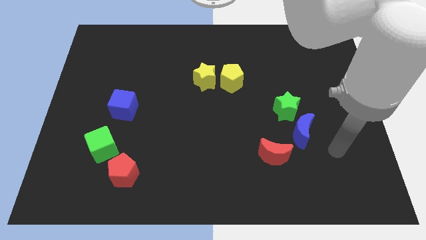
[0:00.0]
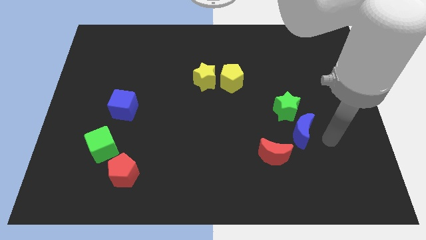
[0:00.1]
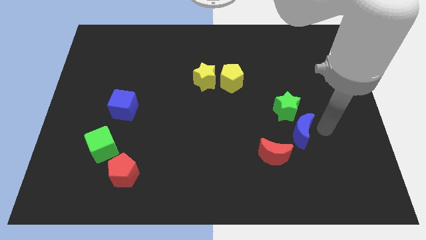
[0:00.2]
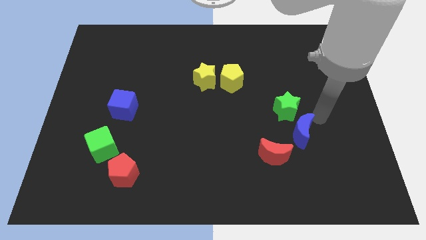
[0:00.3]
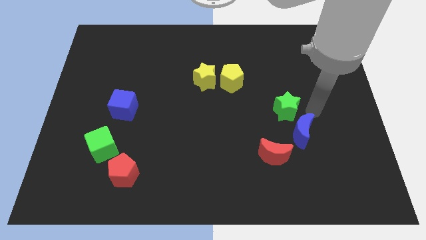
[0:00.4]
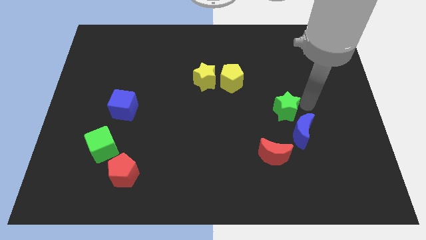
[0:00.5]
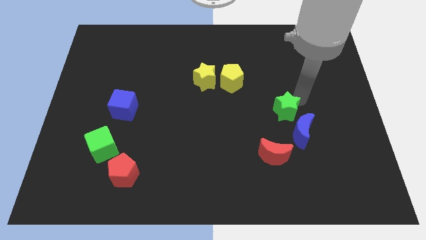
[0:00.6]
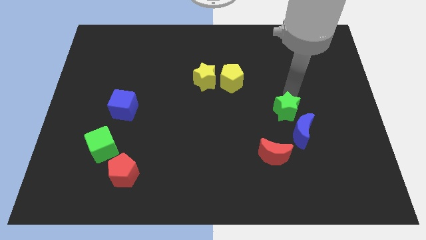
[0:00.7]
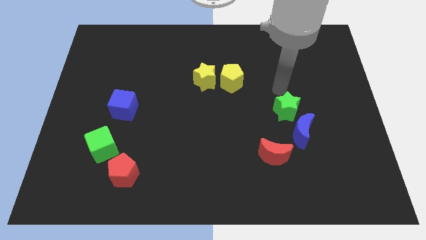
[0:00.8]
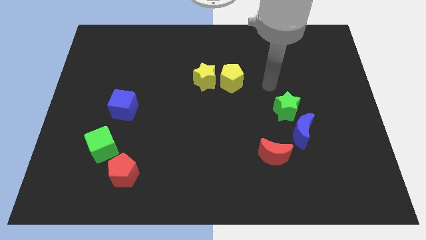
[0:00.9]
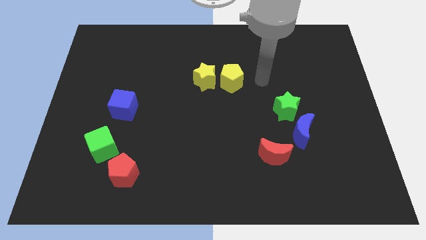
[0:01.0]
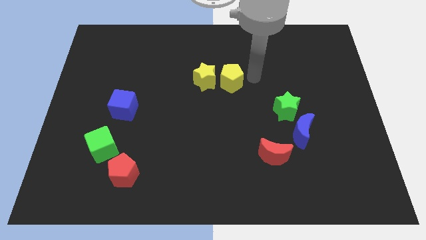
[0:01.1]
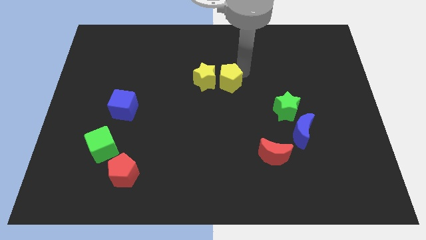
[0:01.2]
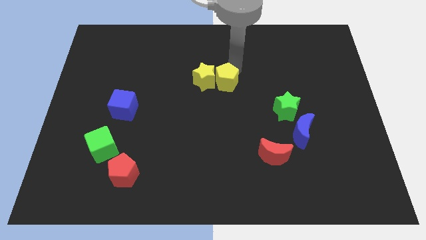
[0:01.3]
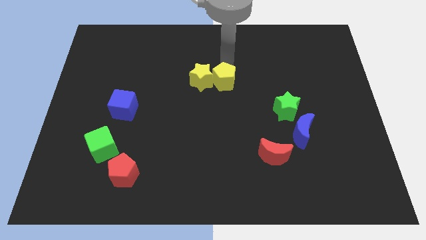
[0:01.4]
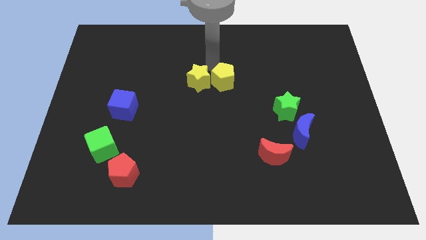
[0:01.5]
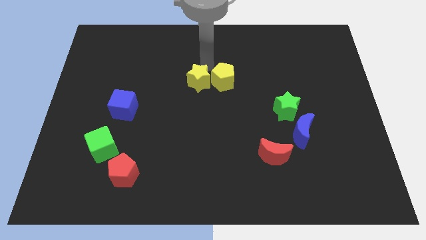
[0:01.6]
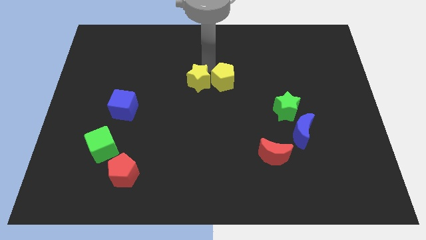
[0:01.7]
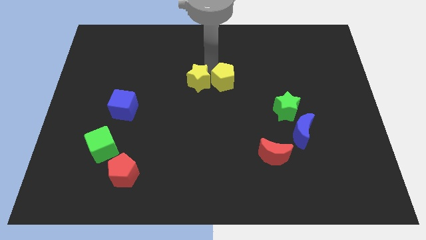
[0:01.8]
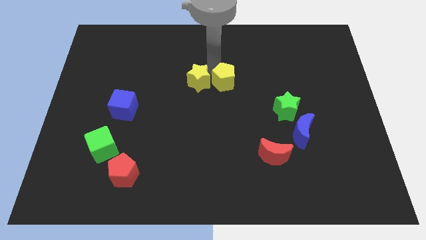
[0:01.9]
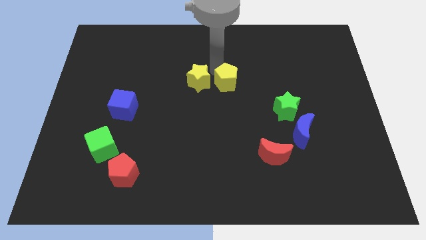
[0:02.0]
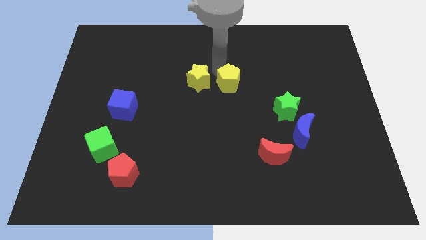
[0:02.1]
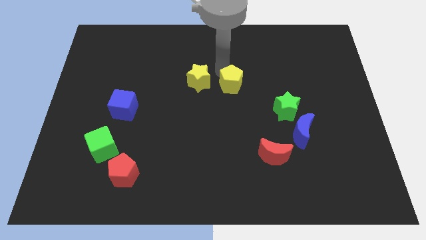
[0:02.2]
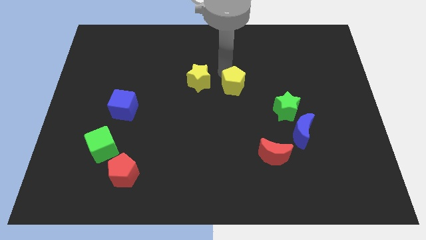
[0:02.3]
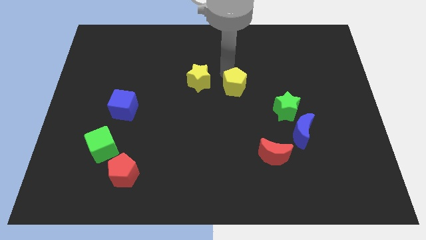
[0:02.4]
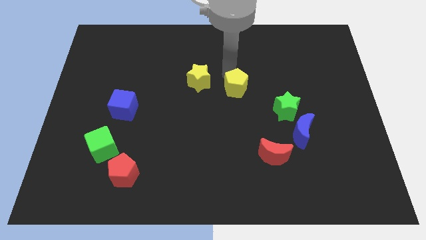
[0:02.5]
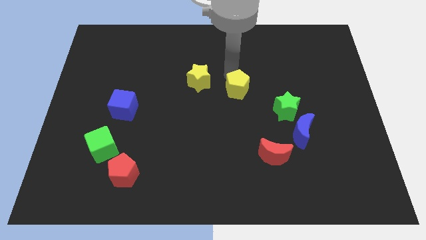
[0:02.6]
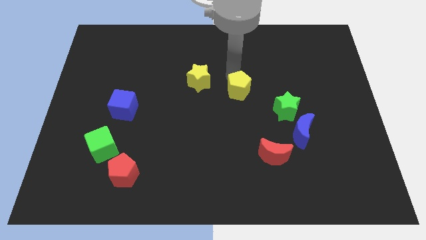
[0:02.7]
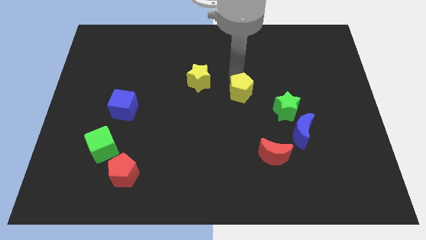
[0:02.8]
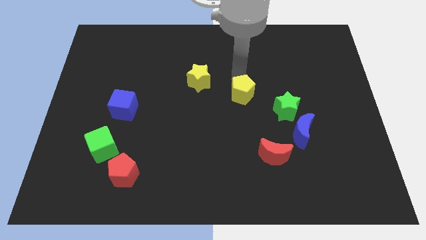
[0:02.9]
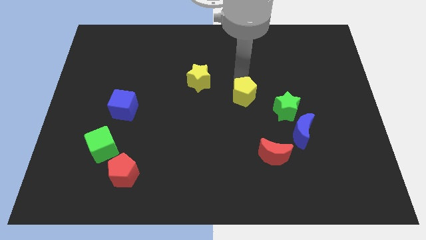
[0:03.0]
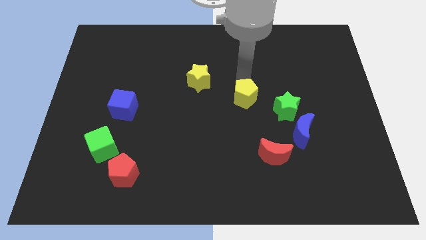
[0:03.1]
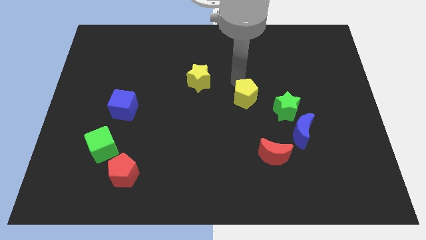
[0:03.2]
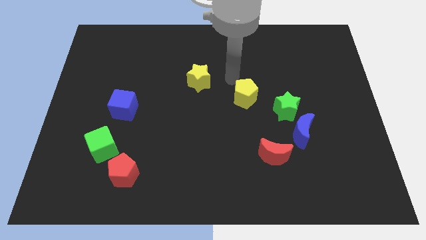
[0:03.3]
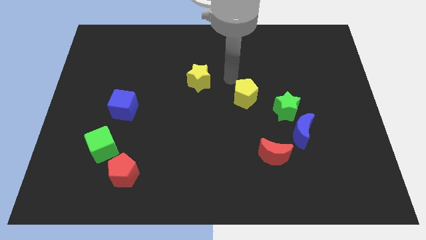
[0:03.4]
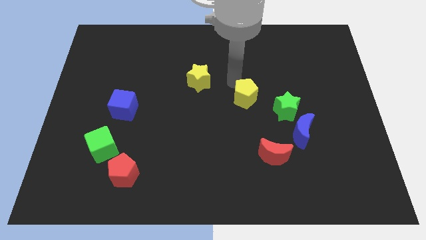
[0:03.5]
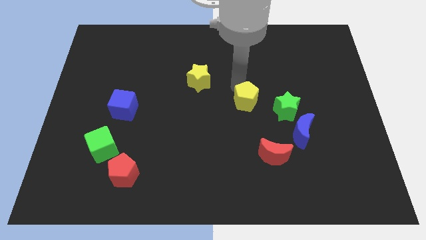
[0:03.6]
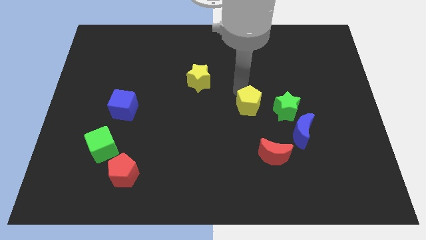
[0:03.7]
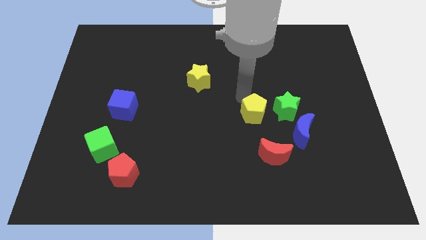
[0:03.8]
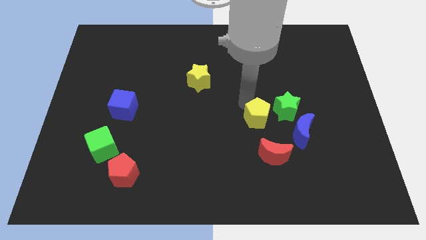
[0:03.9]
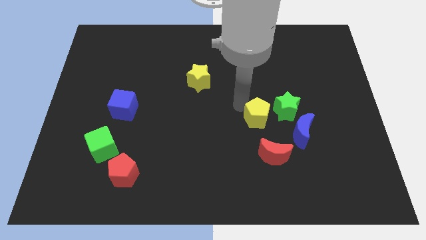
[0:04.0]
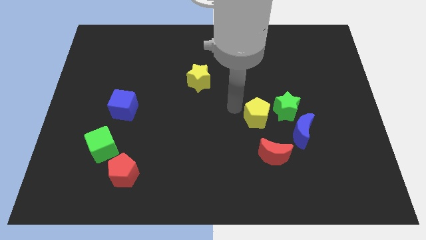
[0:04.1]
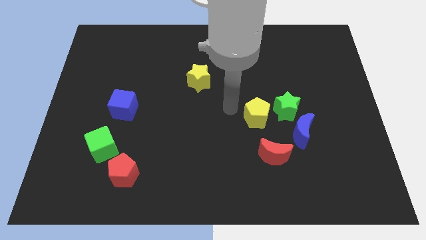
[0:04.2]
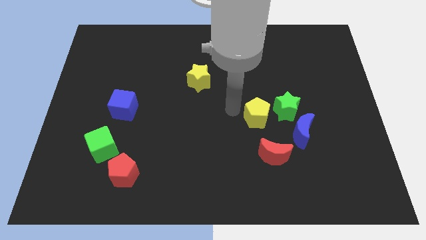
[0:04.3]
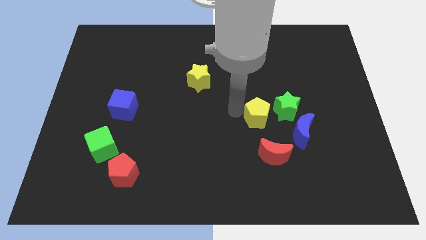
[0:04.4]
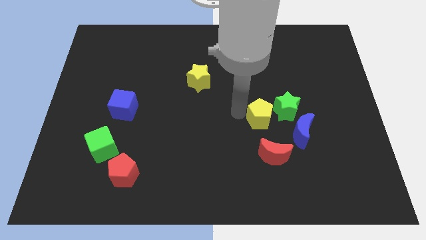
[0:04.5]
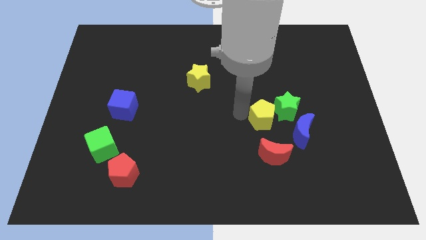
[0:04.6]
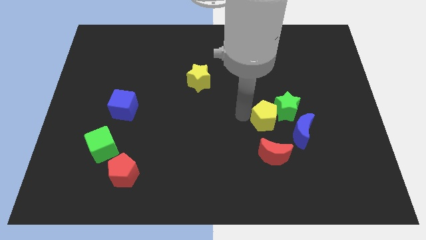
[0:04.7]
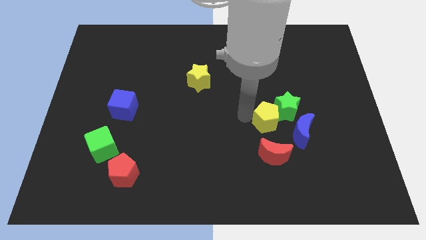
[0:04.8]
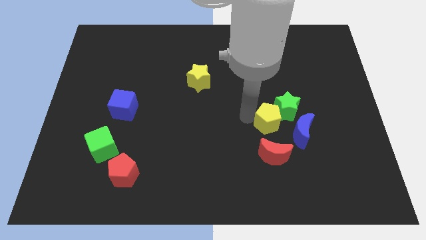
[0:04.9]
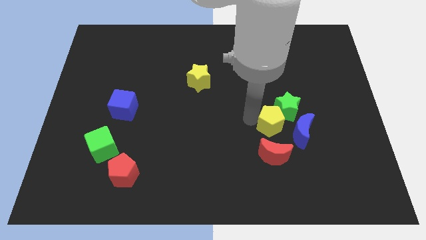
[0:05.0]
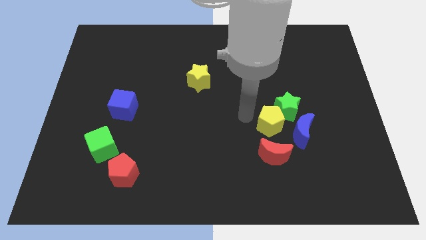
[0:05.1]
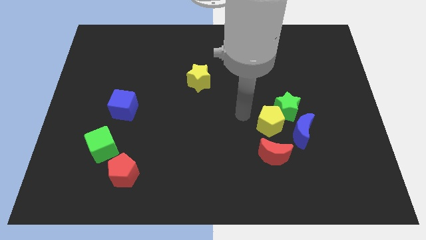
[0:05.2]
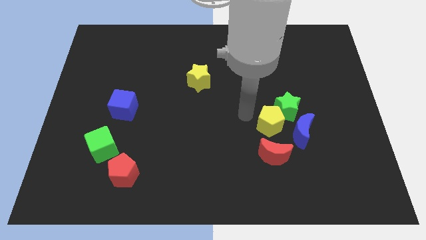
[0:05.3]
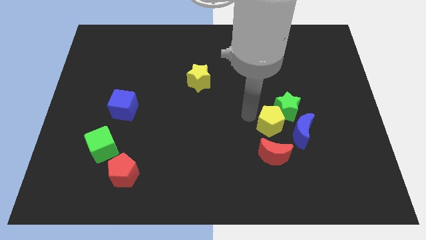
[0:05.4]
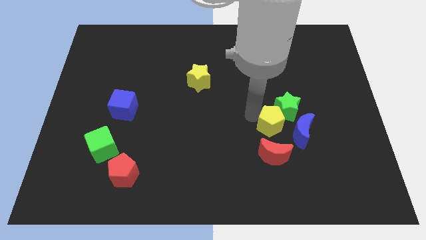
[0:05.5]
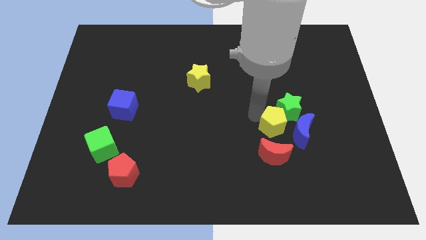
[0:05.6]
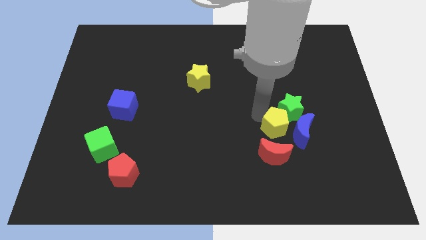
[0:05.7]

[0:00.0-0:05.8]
push the yellow pentagon next to the blue moon

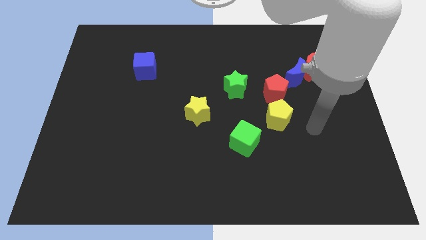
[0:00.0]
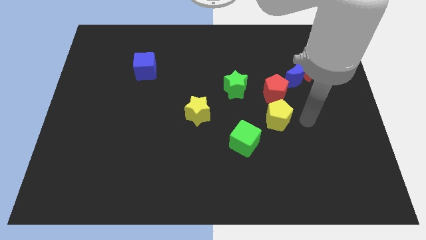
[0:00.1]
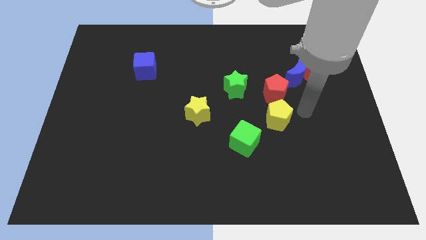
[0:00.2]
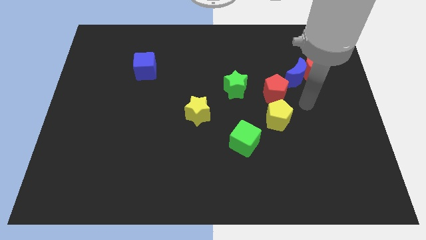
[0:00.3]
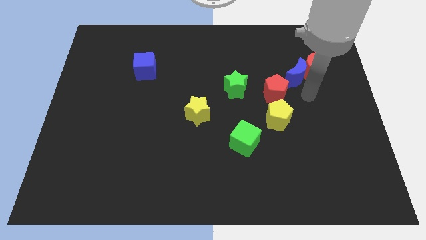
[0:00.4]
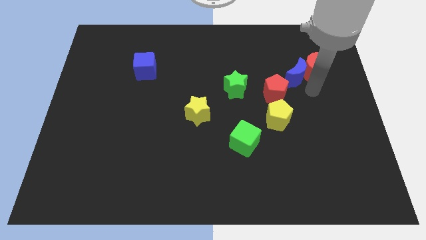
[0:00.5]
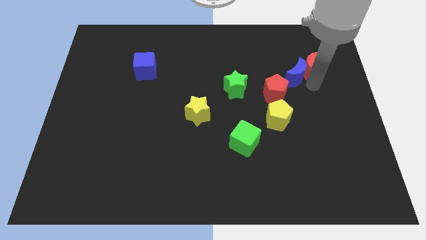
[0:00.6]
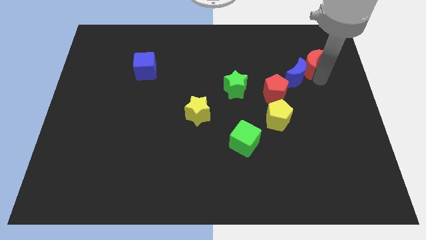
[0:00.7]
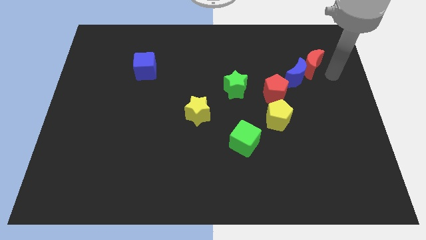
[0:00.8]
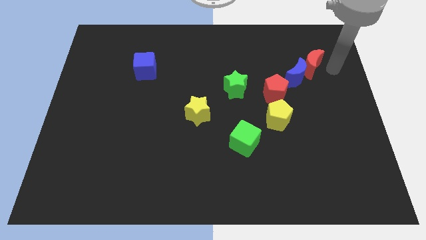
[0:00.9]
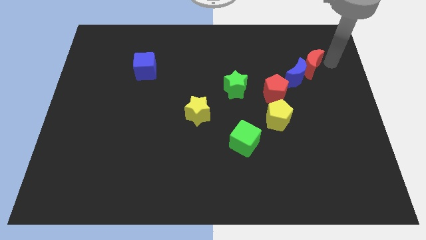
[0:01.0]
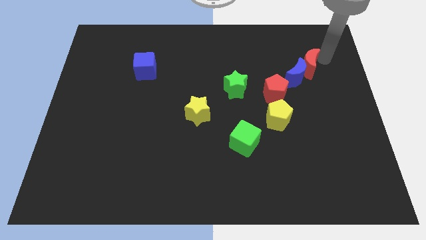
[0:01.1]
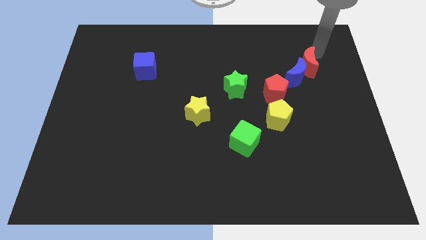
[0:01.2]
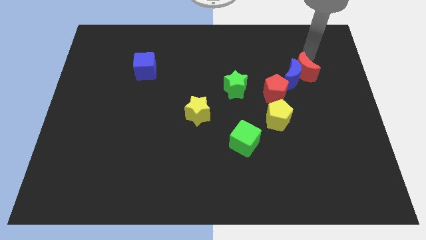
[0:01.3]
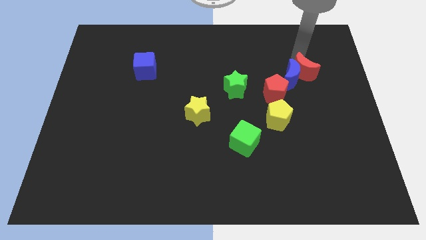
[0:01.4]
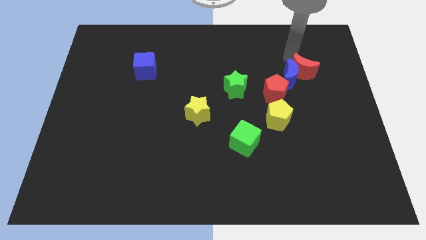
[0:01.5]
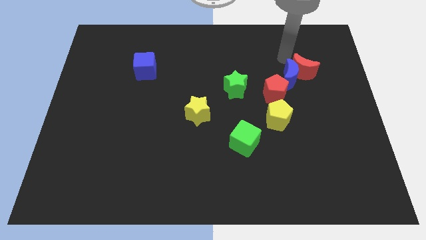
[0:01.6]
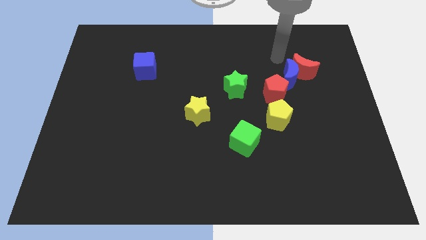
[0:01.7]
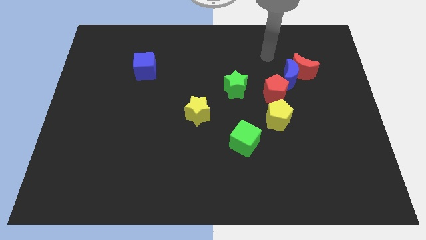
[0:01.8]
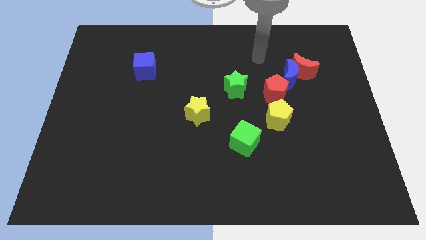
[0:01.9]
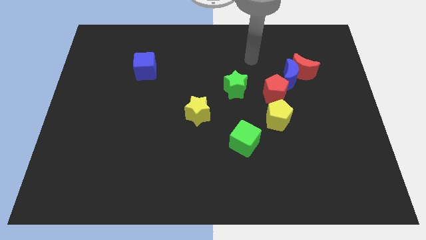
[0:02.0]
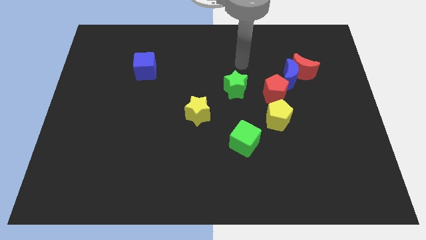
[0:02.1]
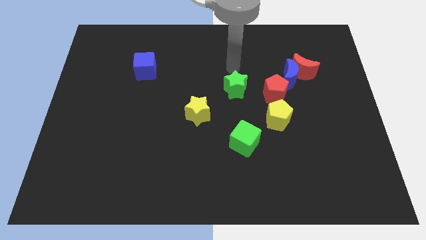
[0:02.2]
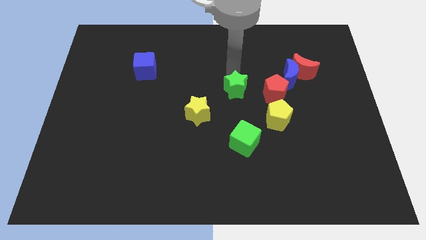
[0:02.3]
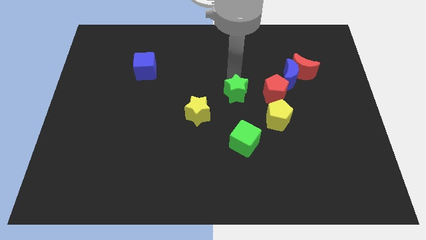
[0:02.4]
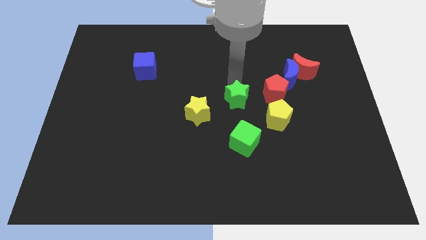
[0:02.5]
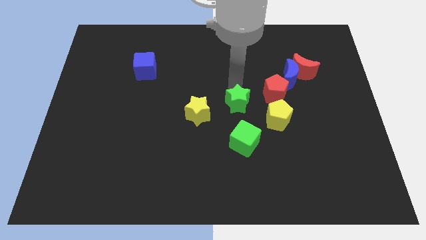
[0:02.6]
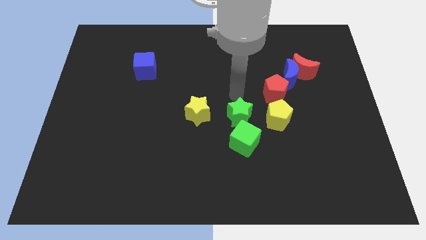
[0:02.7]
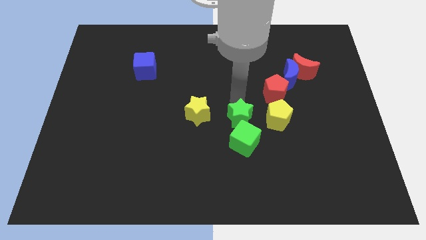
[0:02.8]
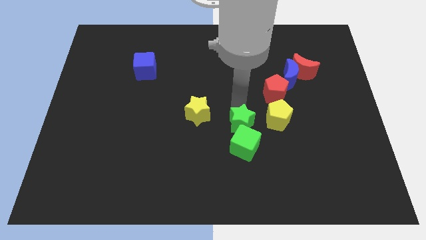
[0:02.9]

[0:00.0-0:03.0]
move the green star to the green cube
